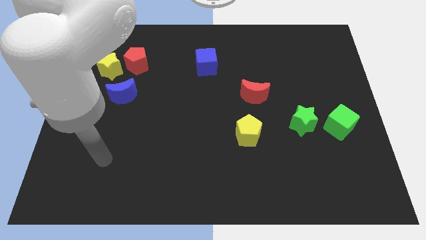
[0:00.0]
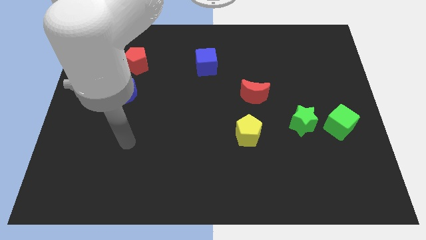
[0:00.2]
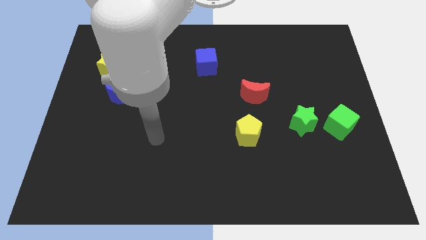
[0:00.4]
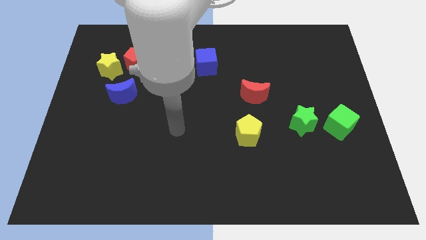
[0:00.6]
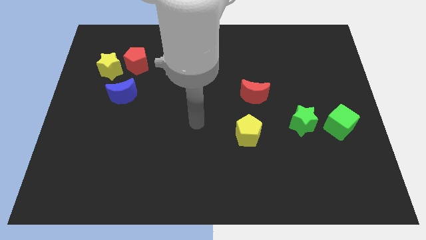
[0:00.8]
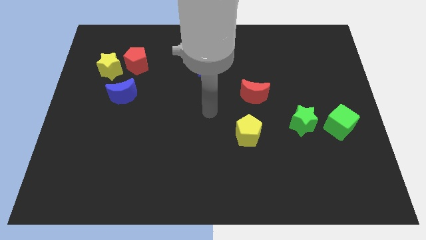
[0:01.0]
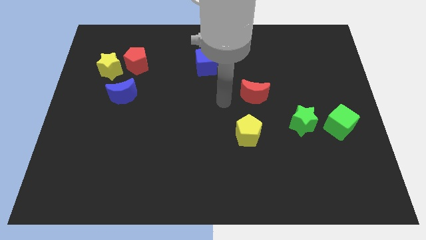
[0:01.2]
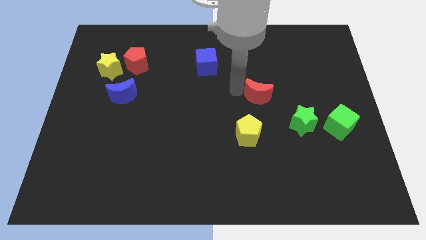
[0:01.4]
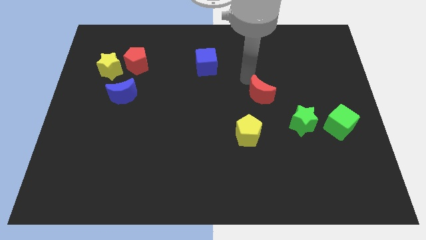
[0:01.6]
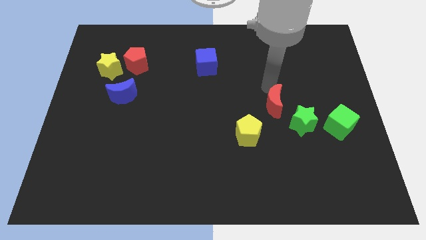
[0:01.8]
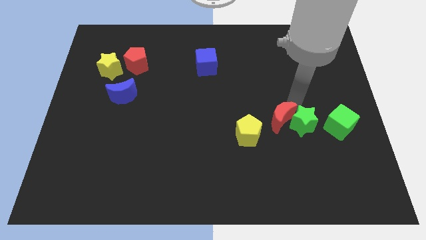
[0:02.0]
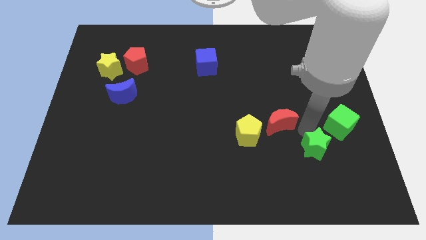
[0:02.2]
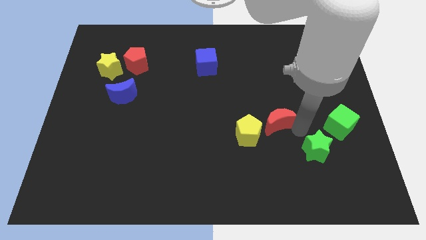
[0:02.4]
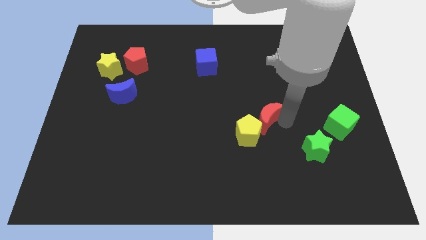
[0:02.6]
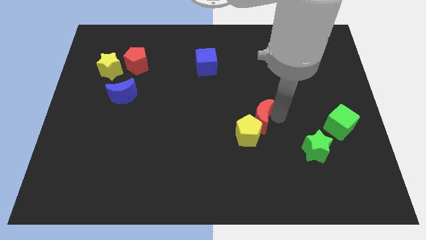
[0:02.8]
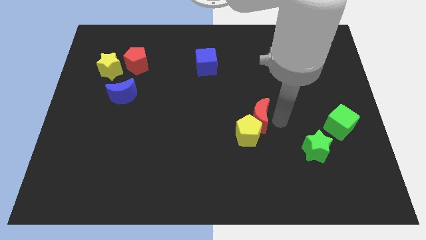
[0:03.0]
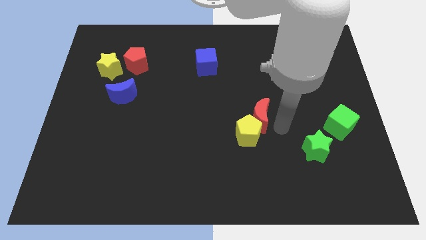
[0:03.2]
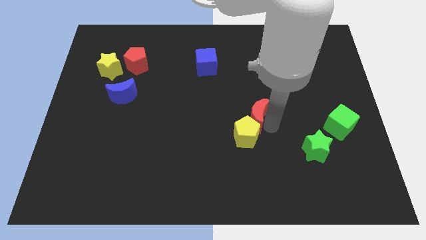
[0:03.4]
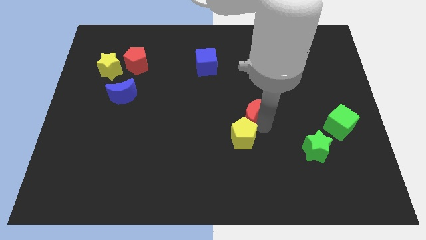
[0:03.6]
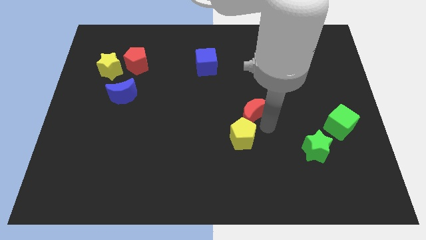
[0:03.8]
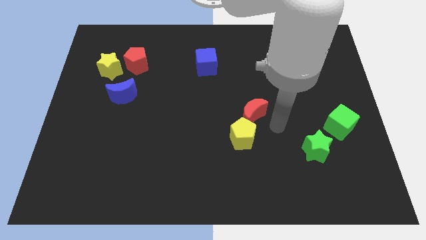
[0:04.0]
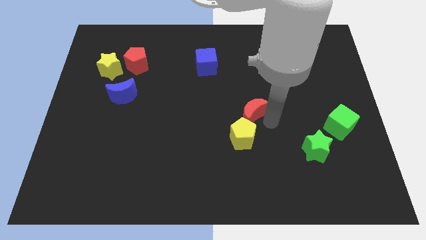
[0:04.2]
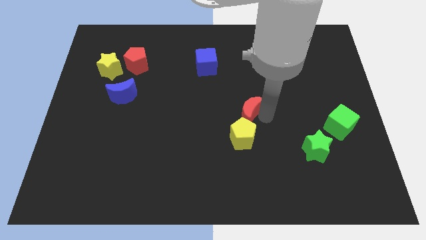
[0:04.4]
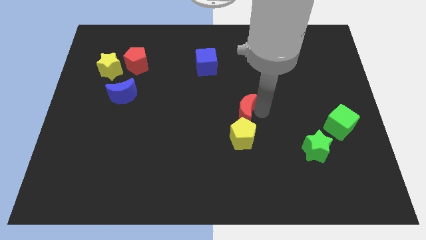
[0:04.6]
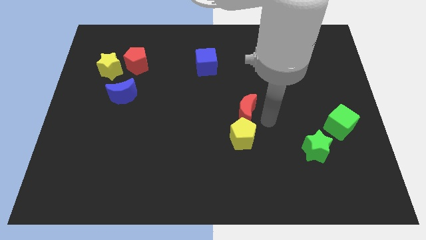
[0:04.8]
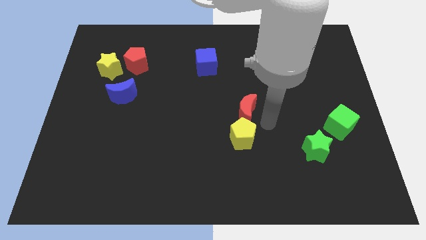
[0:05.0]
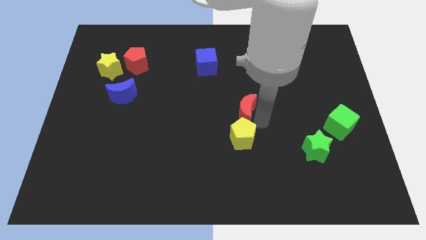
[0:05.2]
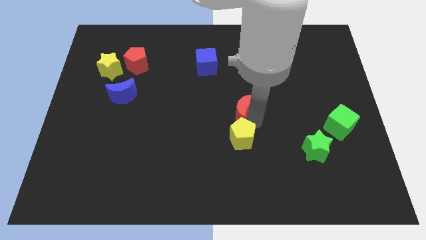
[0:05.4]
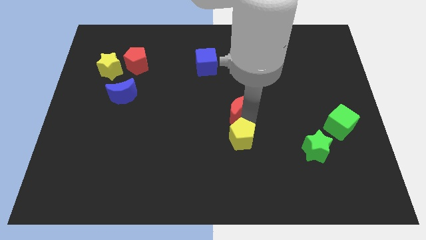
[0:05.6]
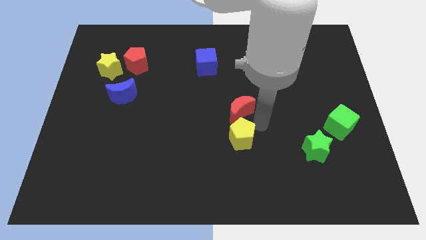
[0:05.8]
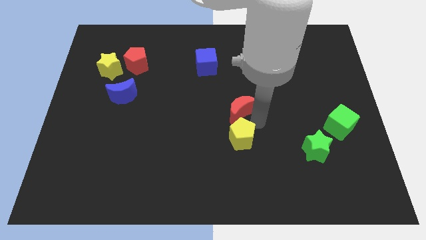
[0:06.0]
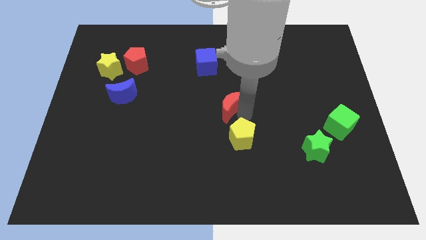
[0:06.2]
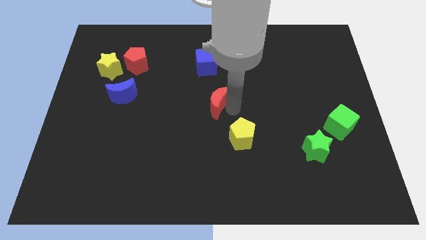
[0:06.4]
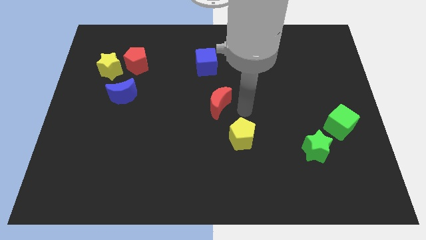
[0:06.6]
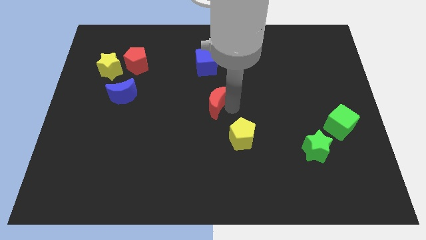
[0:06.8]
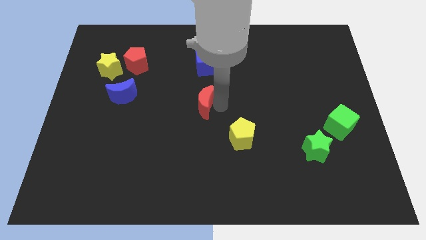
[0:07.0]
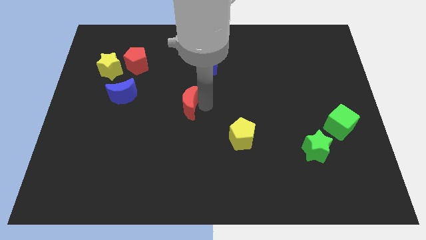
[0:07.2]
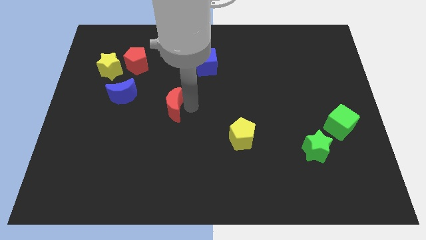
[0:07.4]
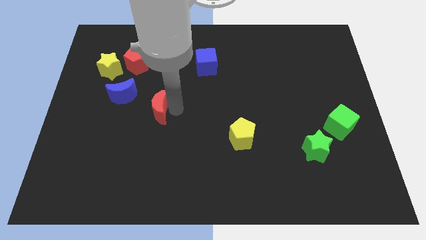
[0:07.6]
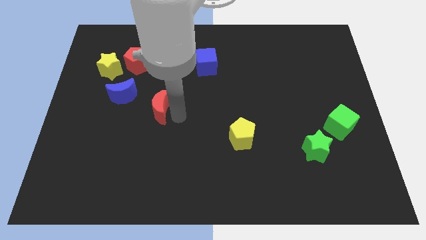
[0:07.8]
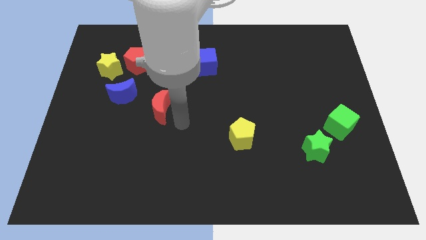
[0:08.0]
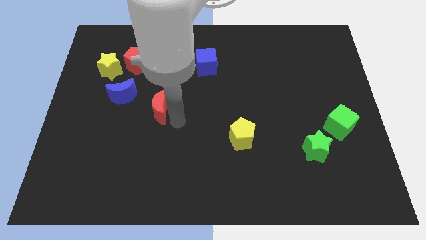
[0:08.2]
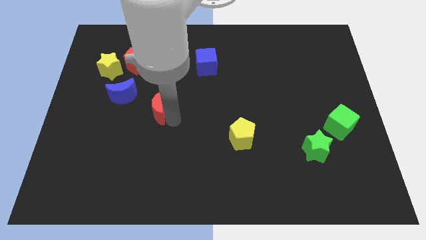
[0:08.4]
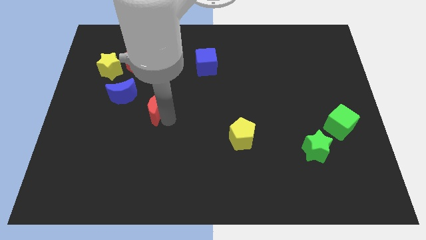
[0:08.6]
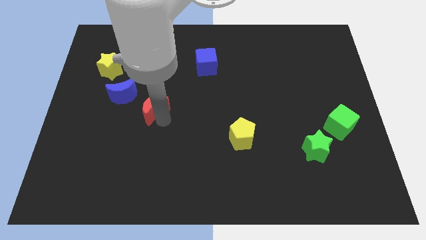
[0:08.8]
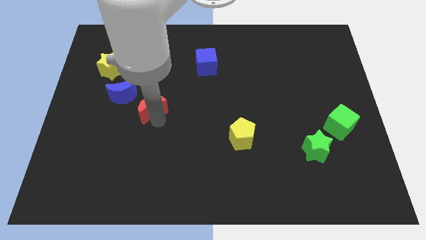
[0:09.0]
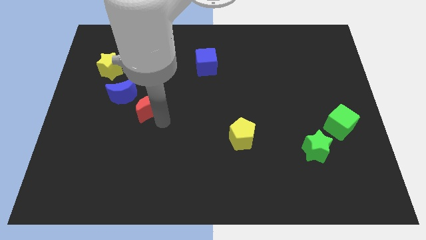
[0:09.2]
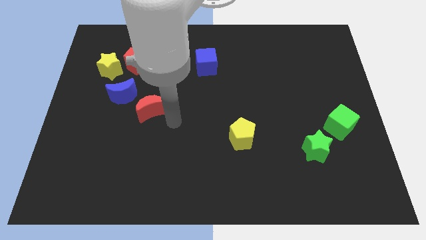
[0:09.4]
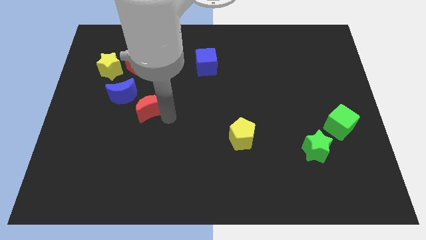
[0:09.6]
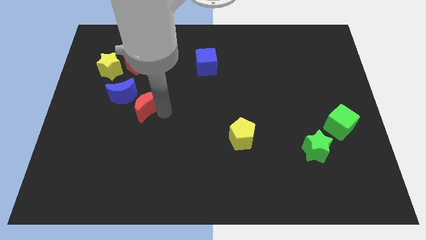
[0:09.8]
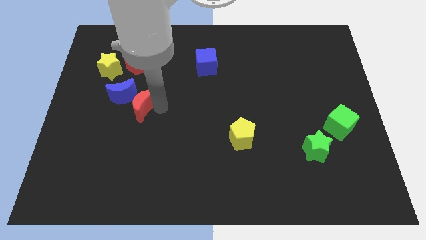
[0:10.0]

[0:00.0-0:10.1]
push the red moon to the blue moon

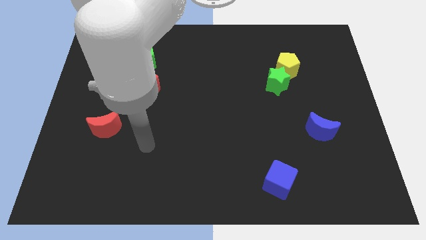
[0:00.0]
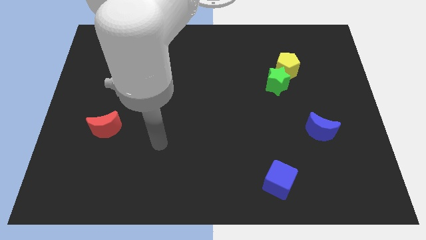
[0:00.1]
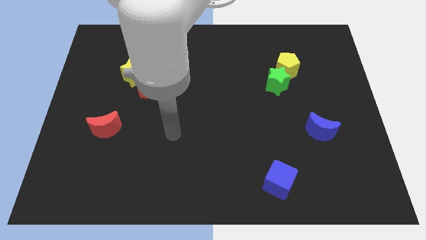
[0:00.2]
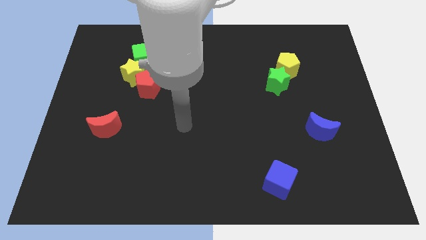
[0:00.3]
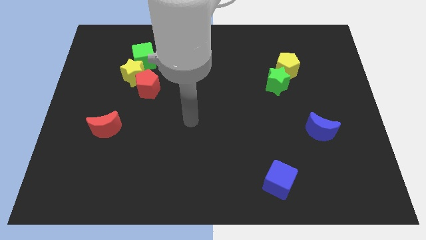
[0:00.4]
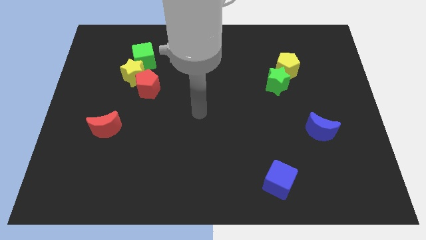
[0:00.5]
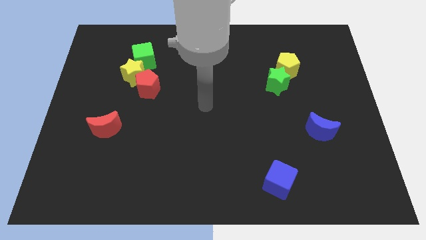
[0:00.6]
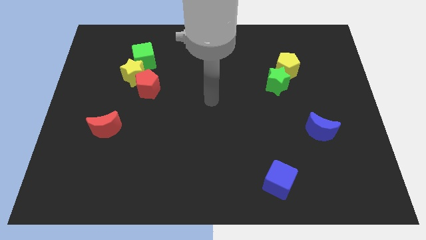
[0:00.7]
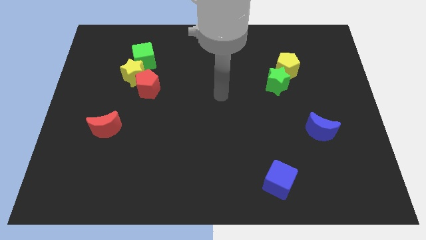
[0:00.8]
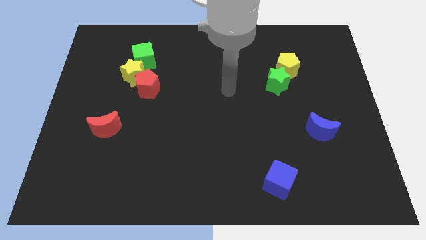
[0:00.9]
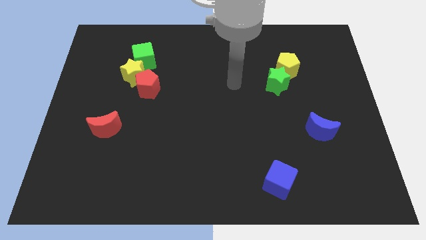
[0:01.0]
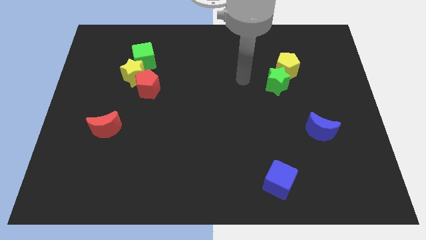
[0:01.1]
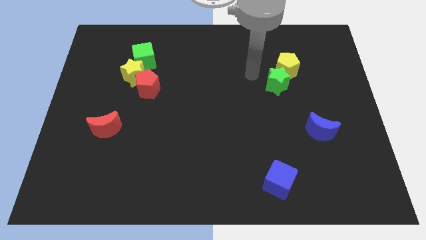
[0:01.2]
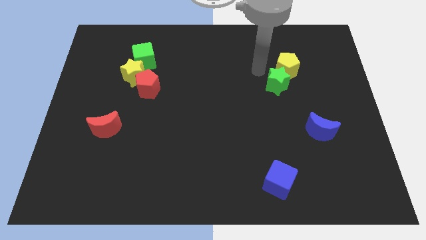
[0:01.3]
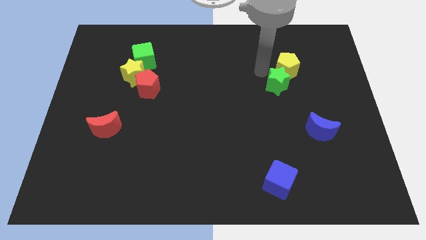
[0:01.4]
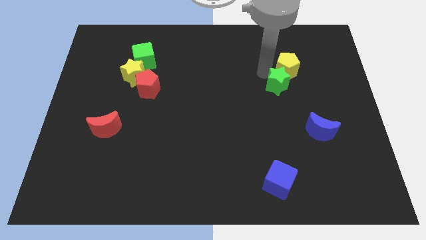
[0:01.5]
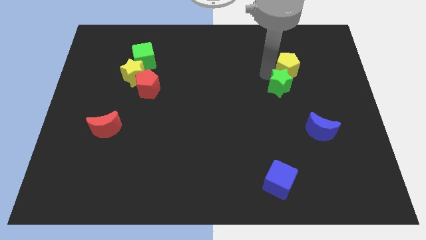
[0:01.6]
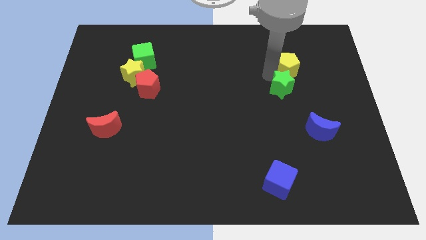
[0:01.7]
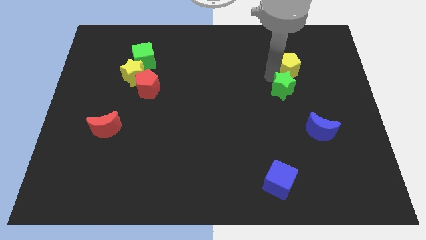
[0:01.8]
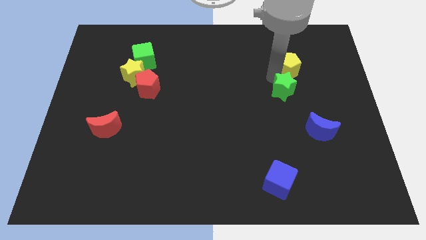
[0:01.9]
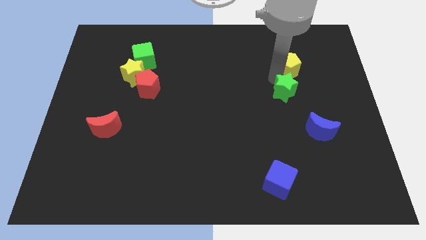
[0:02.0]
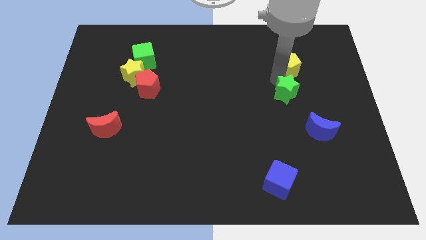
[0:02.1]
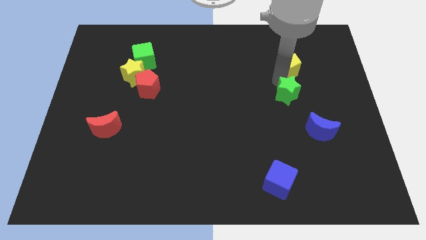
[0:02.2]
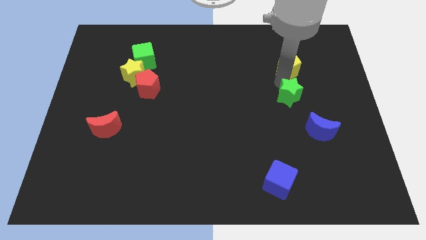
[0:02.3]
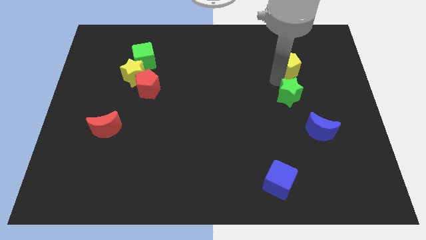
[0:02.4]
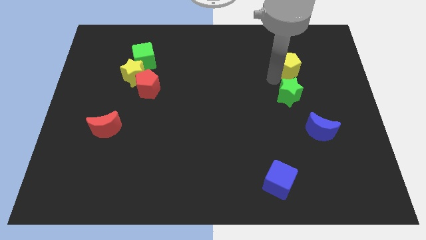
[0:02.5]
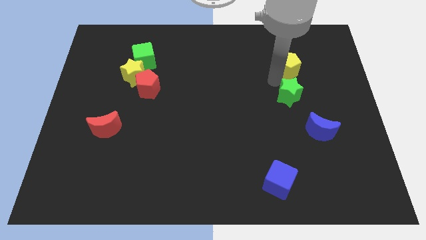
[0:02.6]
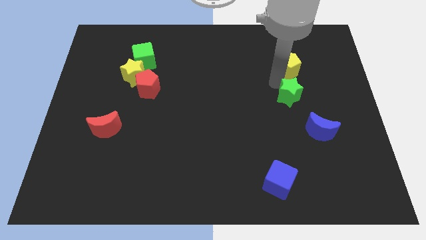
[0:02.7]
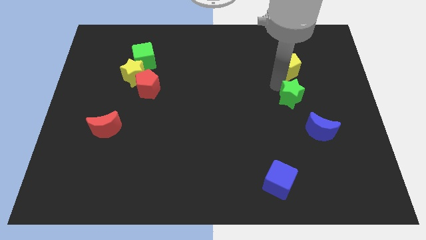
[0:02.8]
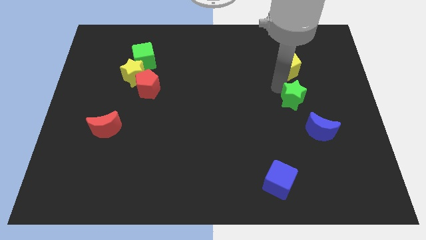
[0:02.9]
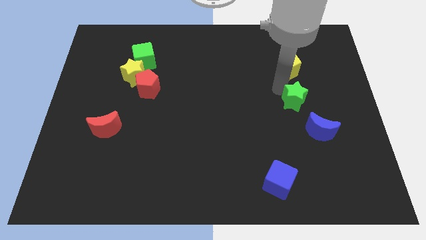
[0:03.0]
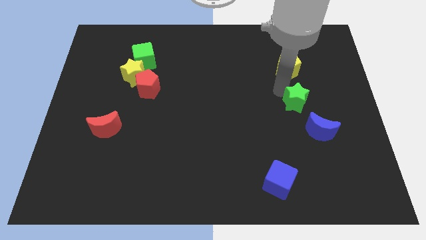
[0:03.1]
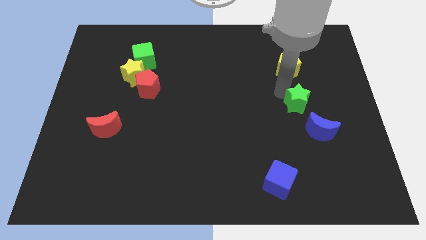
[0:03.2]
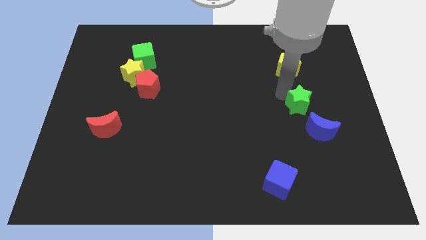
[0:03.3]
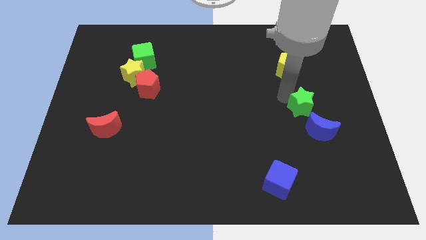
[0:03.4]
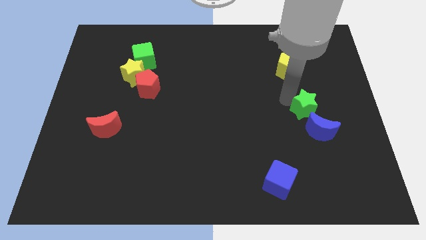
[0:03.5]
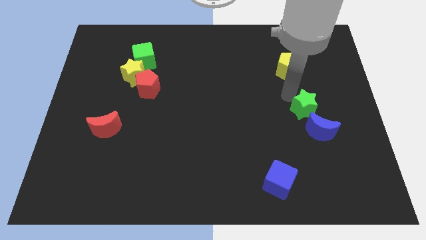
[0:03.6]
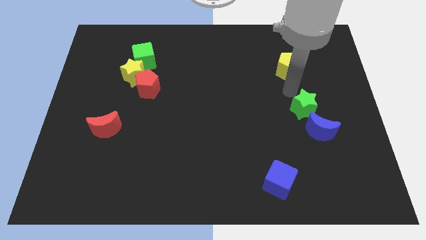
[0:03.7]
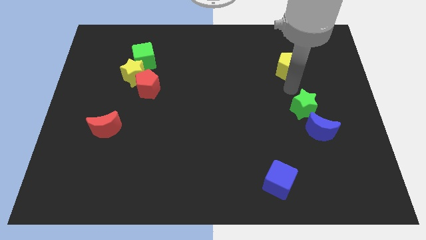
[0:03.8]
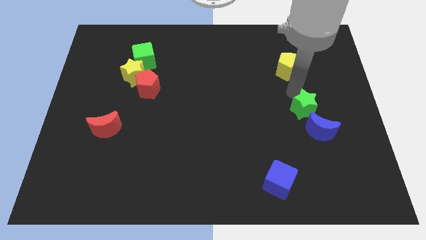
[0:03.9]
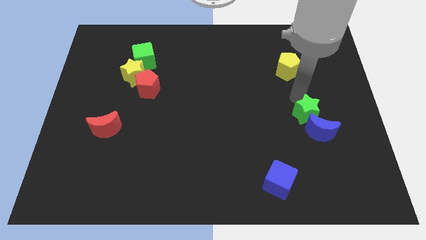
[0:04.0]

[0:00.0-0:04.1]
push the green star close to the blue moon
